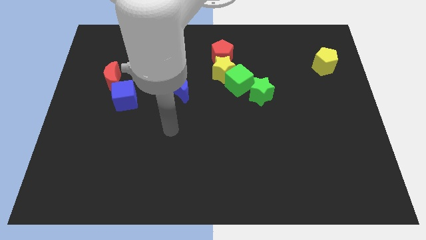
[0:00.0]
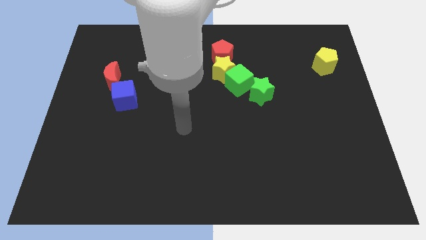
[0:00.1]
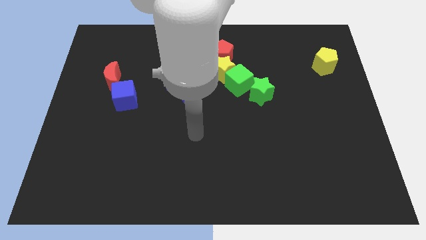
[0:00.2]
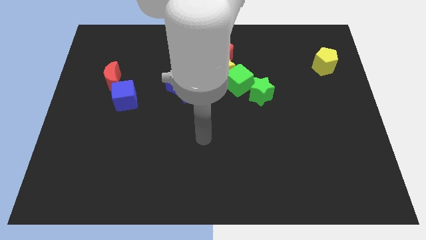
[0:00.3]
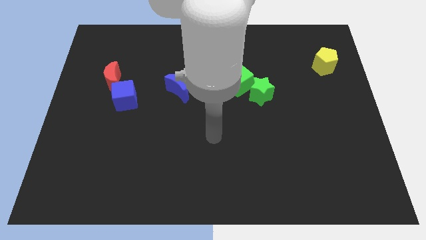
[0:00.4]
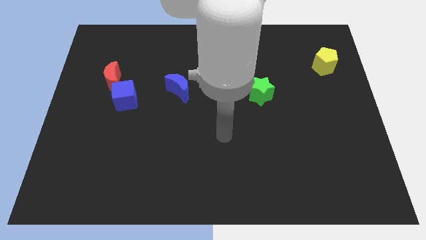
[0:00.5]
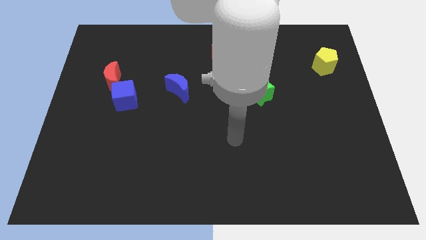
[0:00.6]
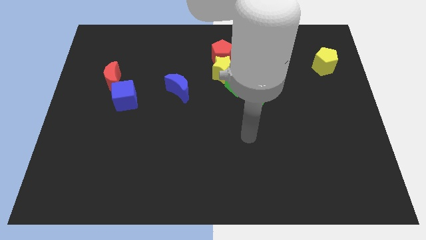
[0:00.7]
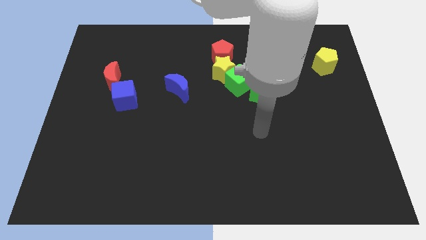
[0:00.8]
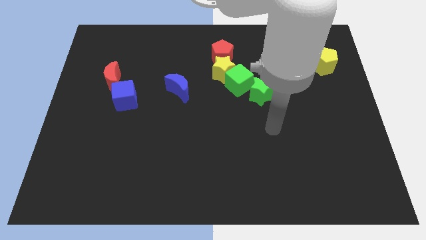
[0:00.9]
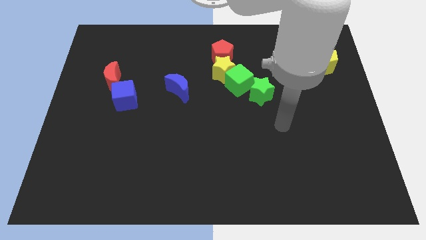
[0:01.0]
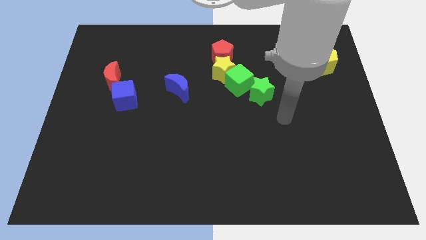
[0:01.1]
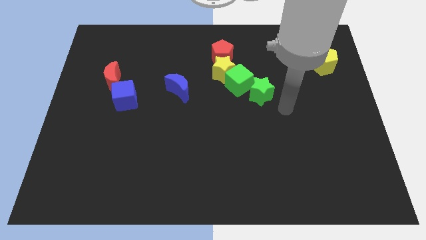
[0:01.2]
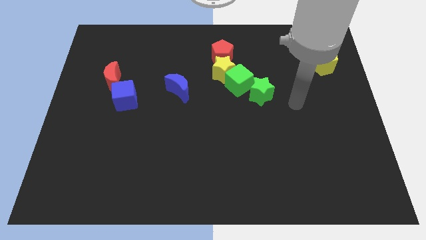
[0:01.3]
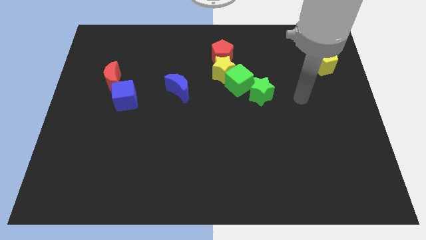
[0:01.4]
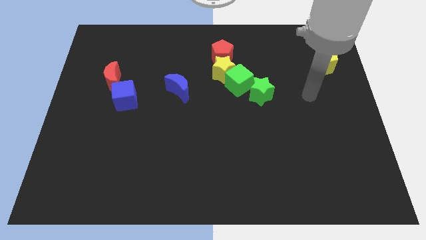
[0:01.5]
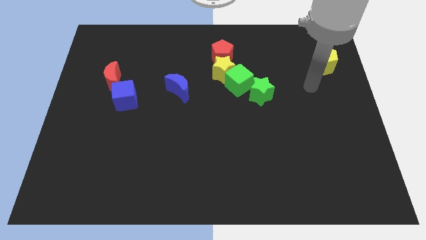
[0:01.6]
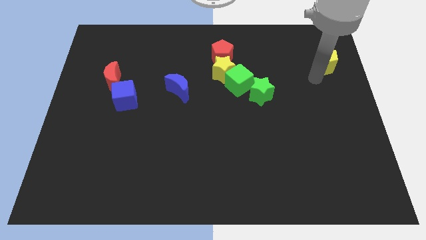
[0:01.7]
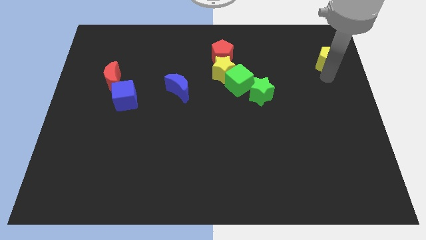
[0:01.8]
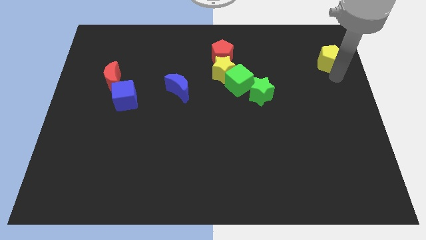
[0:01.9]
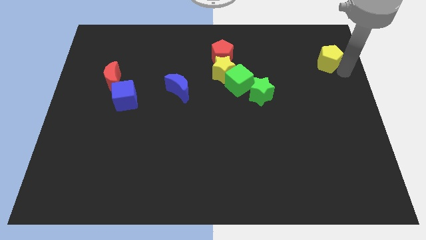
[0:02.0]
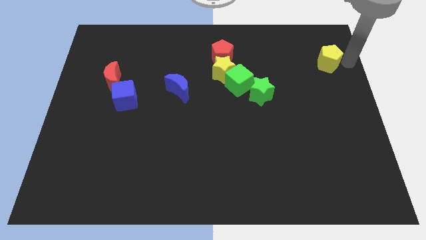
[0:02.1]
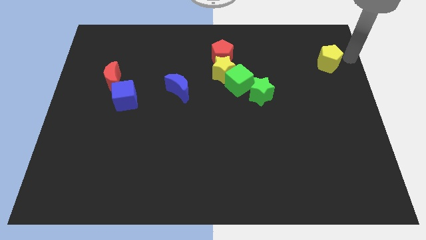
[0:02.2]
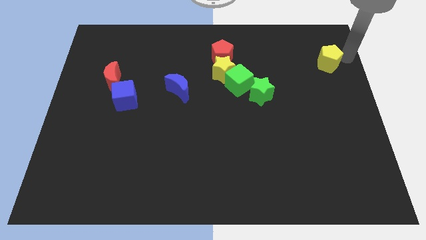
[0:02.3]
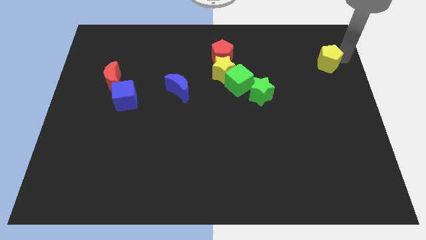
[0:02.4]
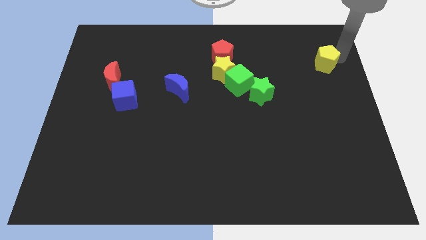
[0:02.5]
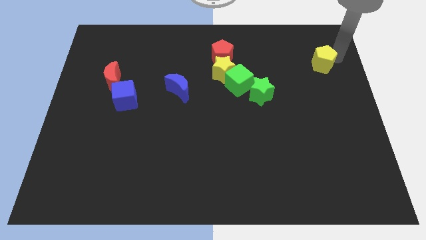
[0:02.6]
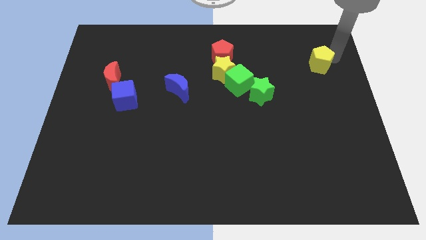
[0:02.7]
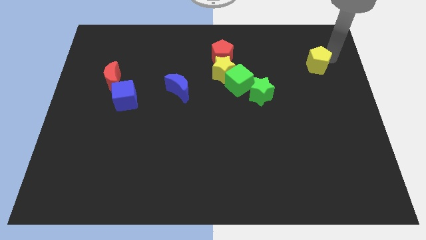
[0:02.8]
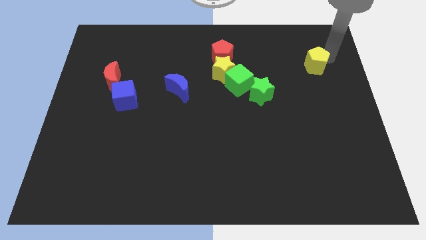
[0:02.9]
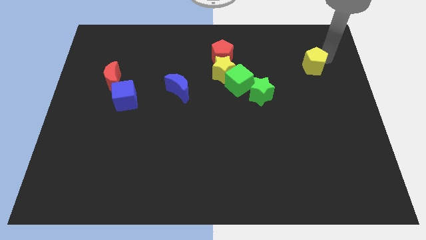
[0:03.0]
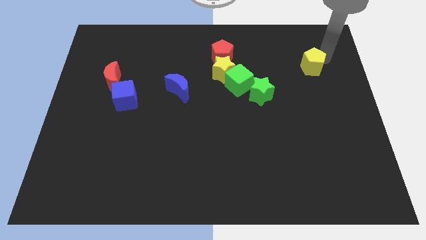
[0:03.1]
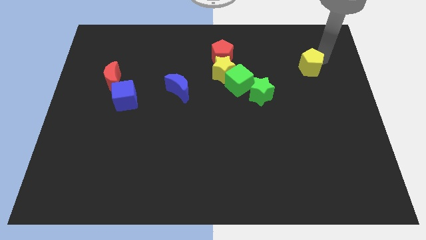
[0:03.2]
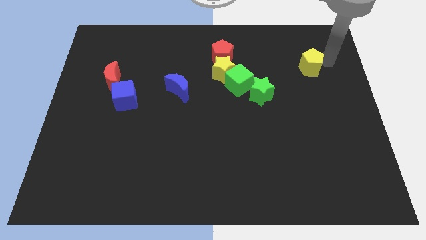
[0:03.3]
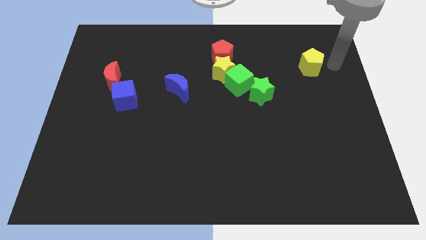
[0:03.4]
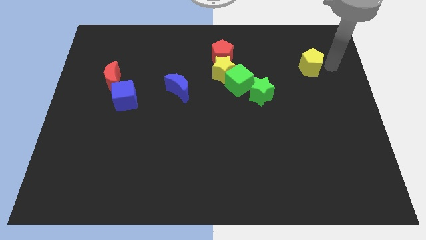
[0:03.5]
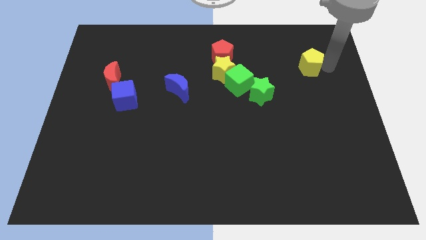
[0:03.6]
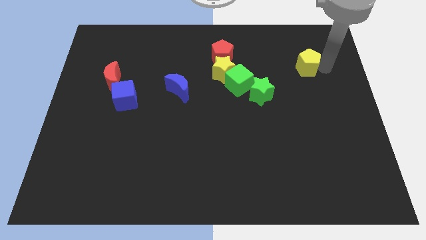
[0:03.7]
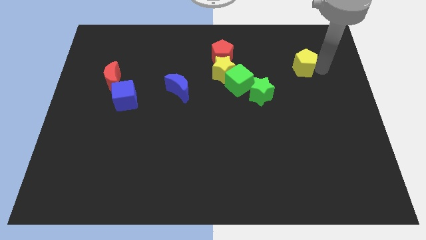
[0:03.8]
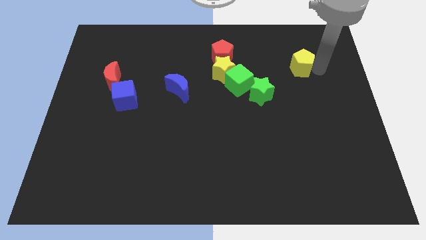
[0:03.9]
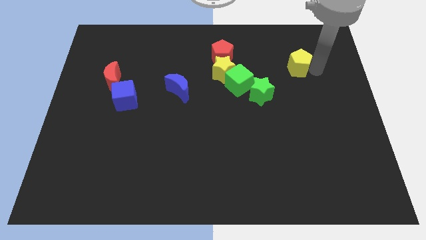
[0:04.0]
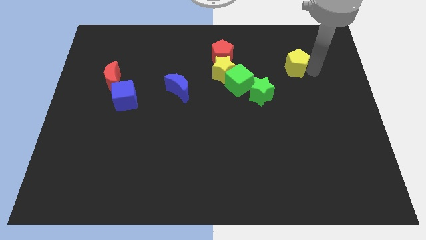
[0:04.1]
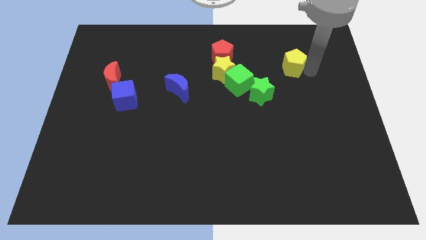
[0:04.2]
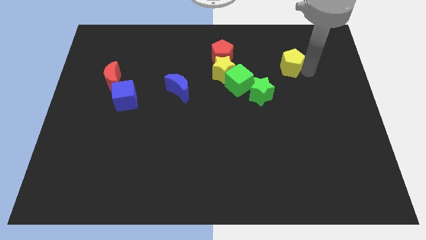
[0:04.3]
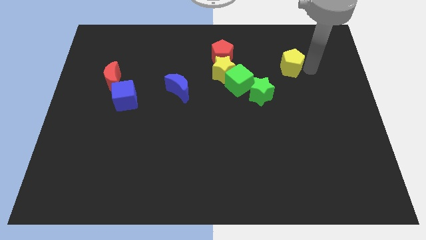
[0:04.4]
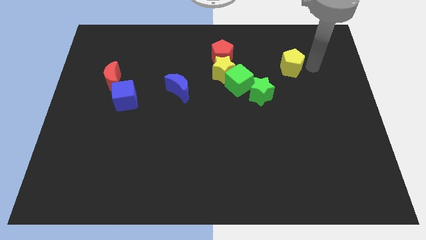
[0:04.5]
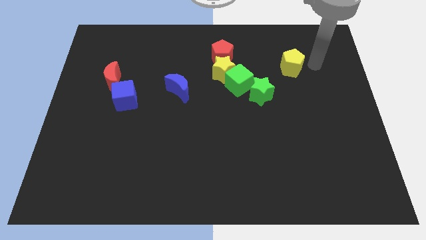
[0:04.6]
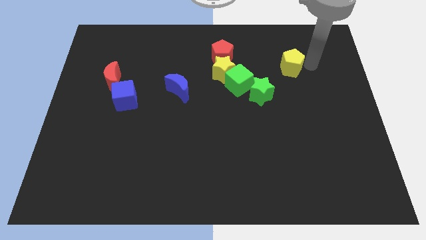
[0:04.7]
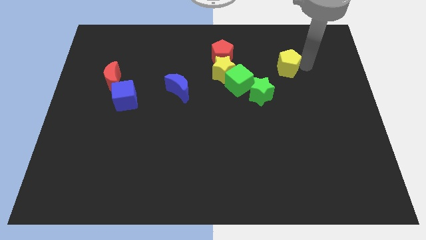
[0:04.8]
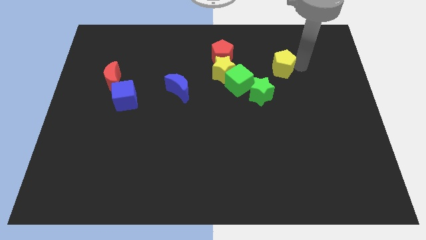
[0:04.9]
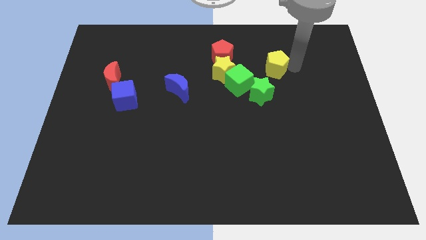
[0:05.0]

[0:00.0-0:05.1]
move the yellow pentagon diagonally up and to the right of the green cube

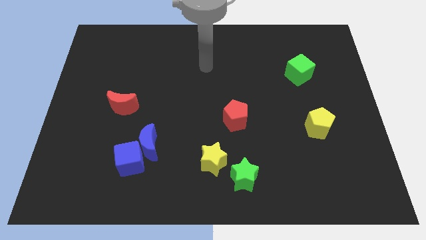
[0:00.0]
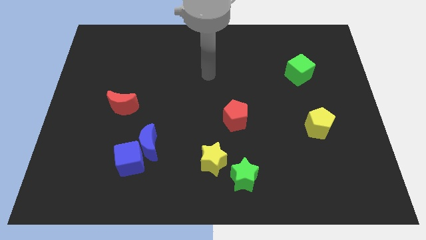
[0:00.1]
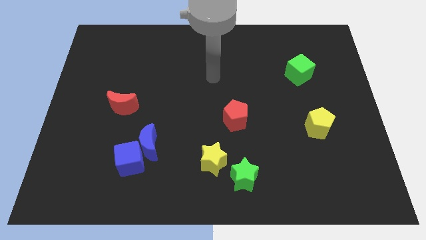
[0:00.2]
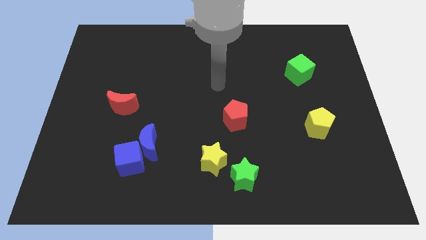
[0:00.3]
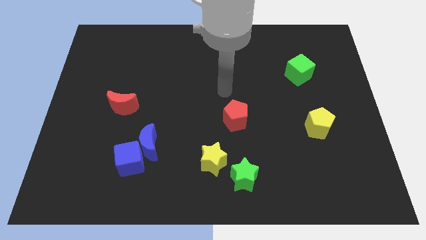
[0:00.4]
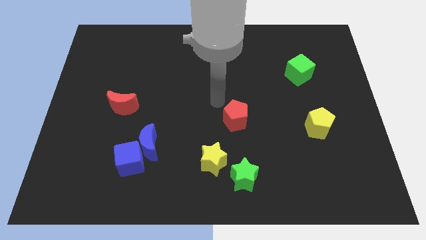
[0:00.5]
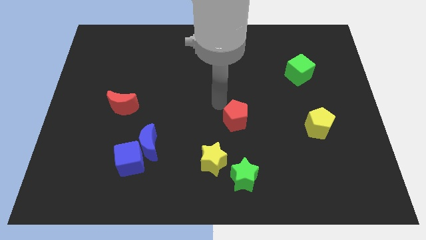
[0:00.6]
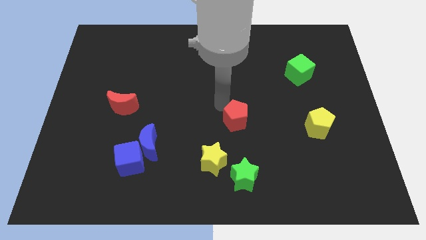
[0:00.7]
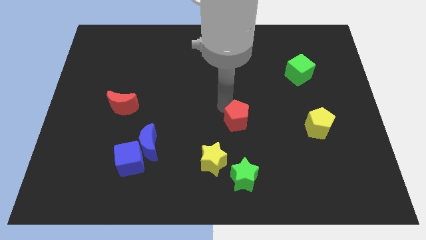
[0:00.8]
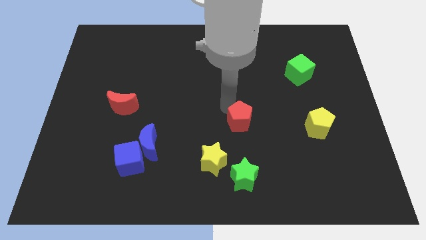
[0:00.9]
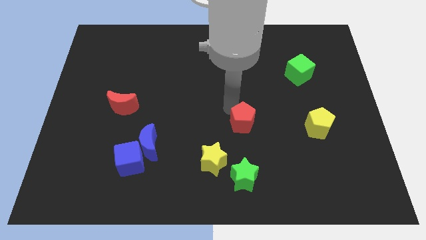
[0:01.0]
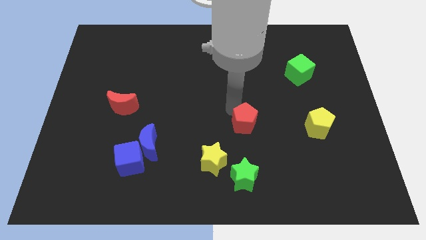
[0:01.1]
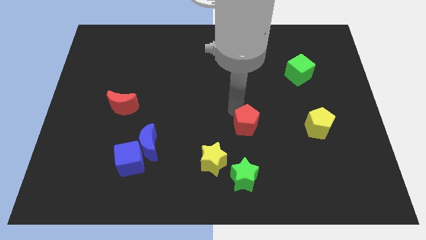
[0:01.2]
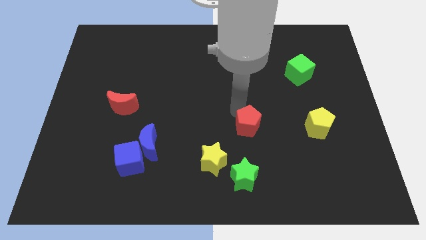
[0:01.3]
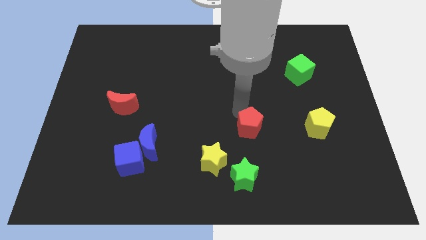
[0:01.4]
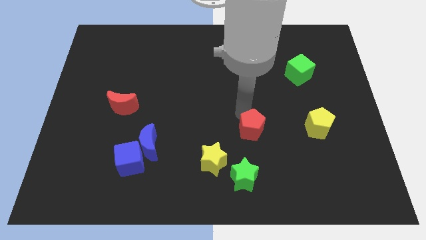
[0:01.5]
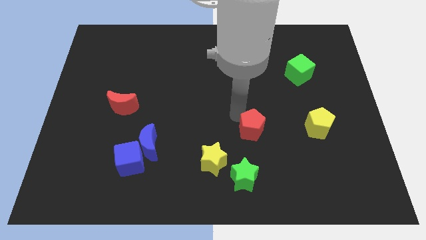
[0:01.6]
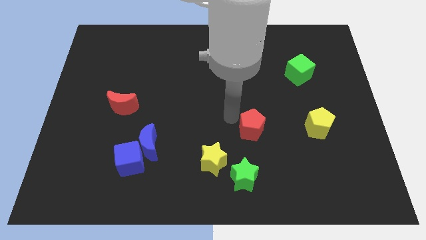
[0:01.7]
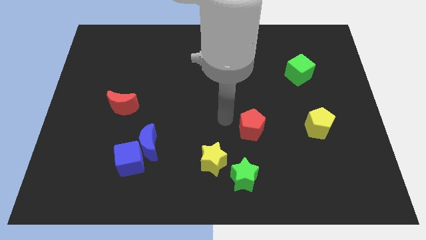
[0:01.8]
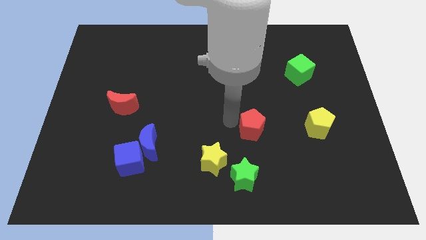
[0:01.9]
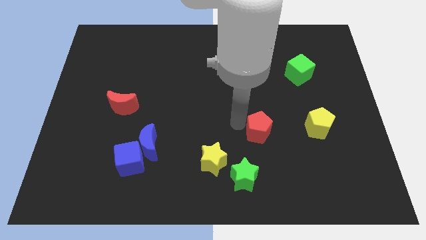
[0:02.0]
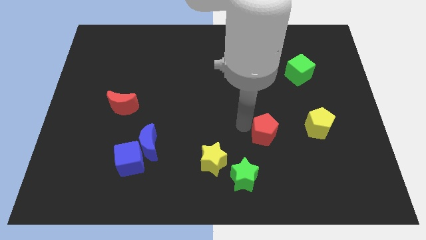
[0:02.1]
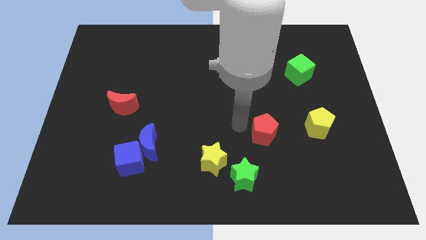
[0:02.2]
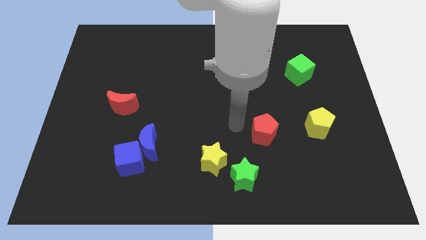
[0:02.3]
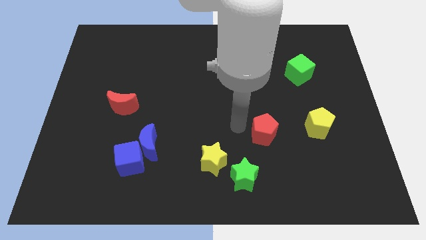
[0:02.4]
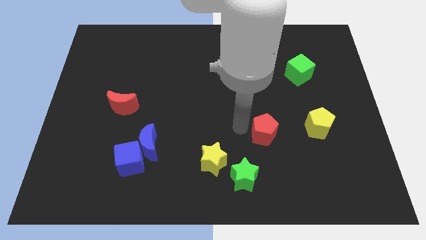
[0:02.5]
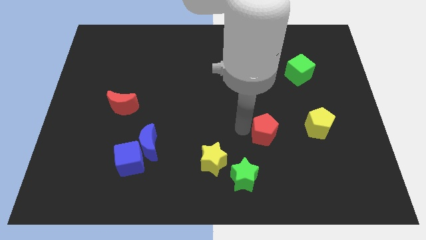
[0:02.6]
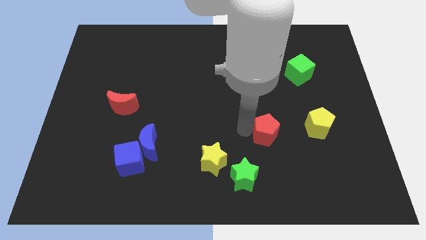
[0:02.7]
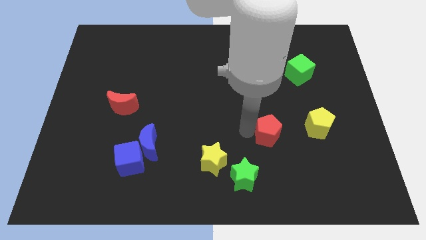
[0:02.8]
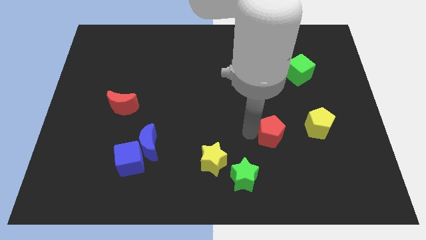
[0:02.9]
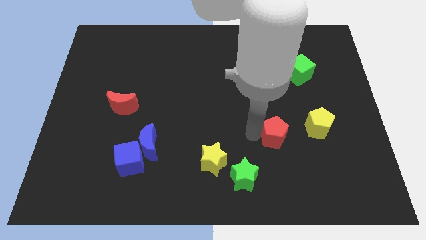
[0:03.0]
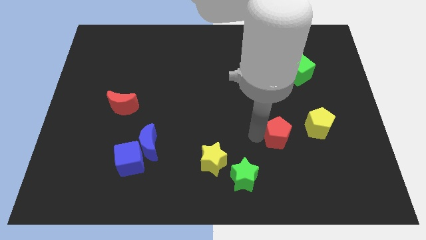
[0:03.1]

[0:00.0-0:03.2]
put the red pentagon to the bottom left side of the yellow pentagon
